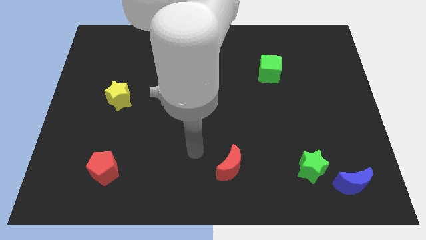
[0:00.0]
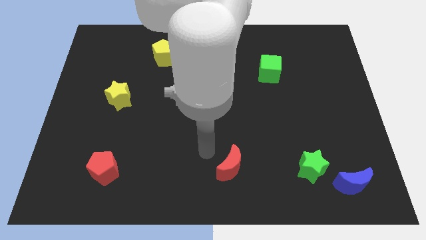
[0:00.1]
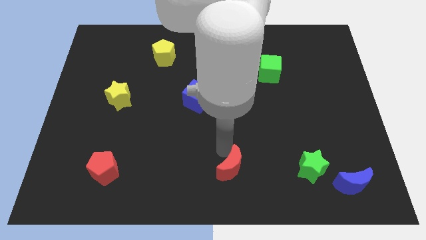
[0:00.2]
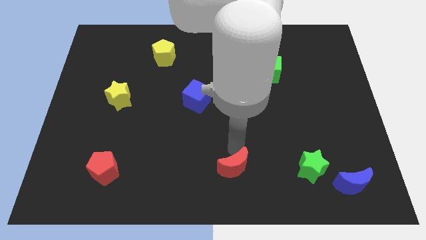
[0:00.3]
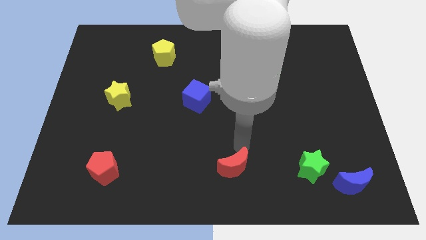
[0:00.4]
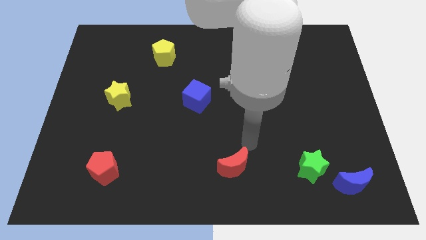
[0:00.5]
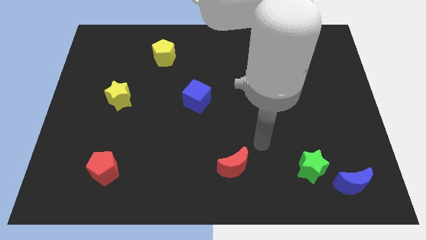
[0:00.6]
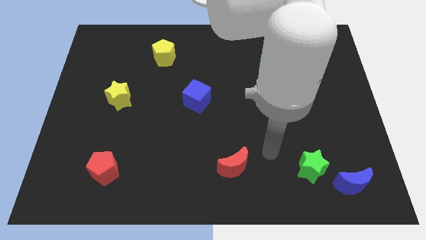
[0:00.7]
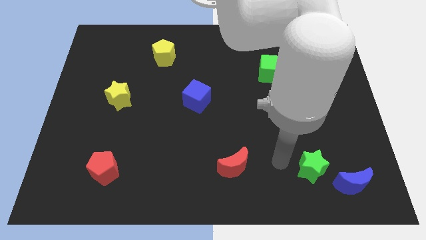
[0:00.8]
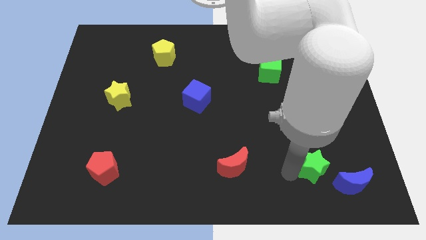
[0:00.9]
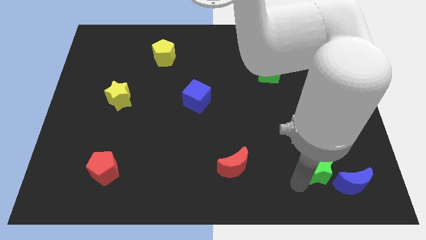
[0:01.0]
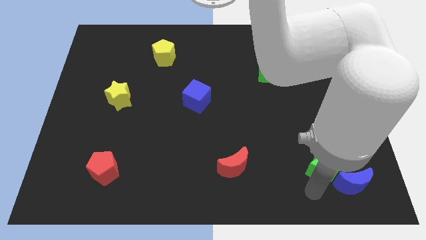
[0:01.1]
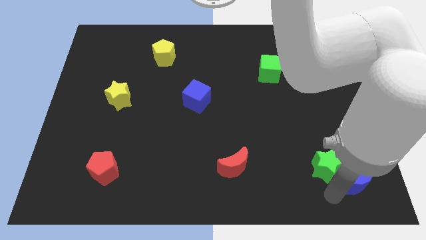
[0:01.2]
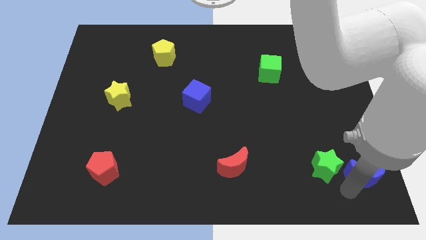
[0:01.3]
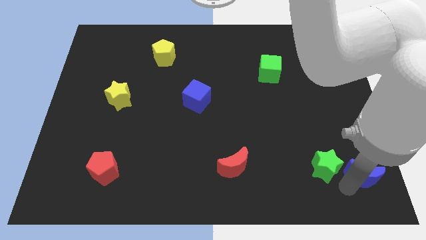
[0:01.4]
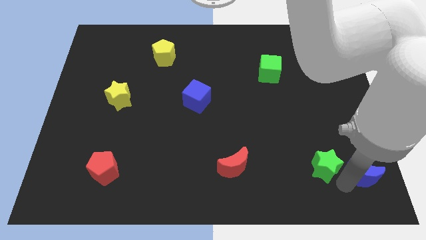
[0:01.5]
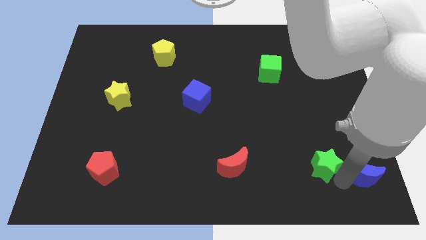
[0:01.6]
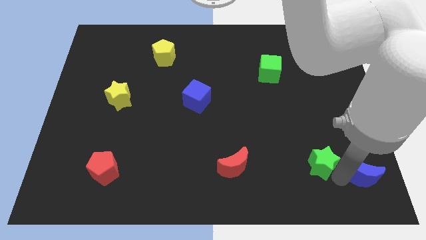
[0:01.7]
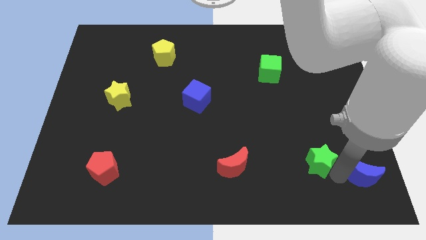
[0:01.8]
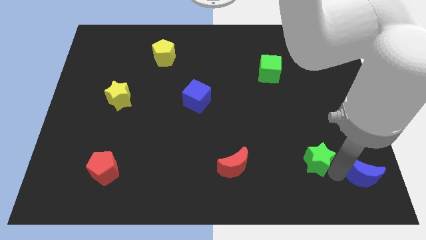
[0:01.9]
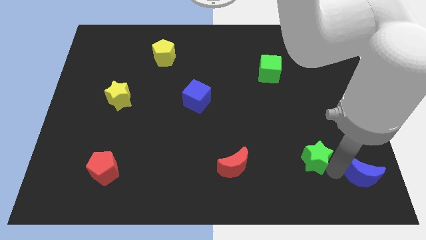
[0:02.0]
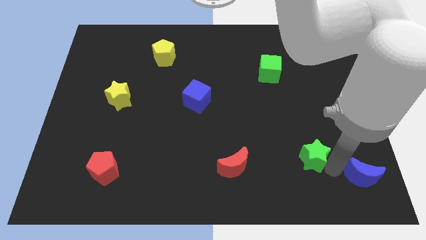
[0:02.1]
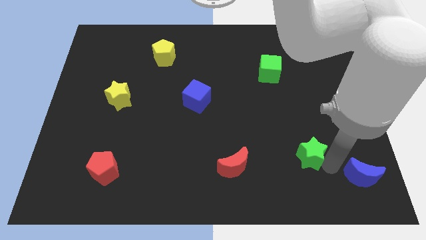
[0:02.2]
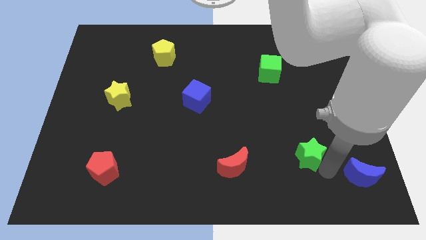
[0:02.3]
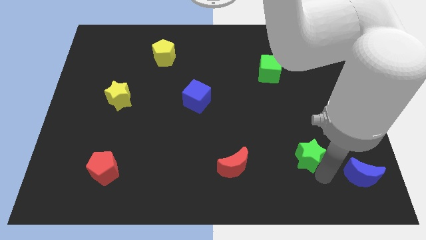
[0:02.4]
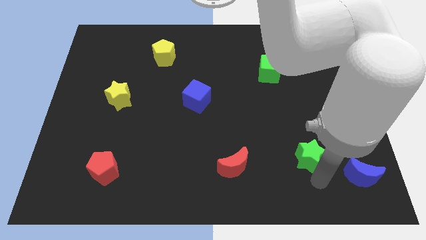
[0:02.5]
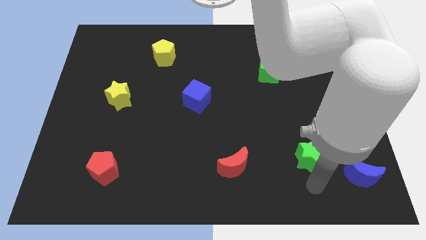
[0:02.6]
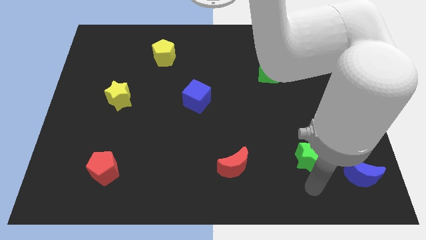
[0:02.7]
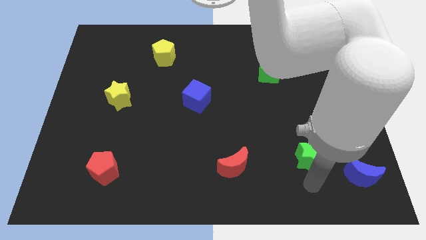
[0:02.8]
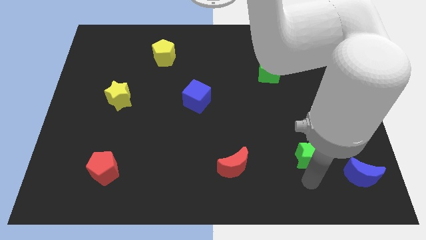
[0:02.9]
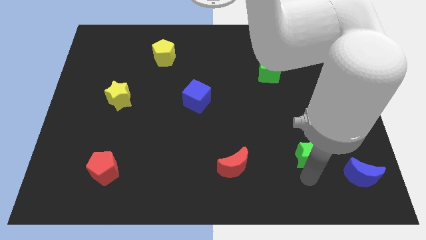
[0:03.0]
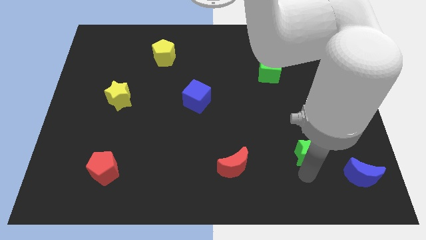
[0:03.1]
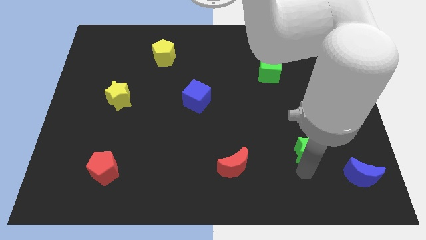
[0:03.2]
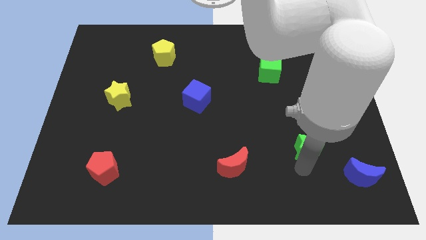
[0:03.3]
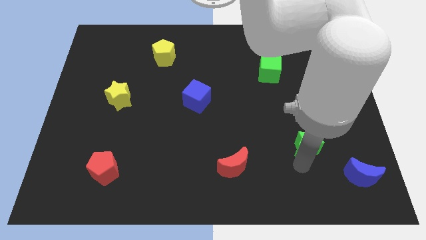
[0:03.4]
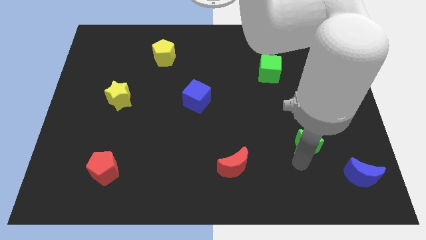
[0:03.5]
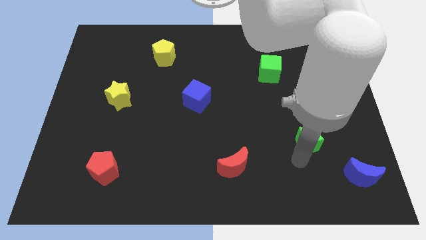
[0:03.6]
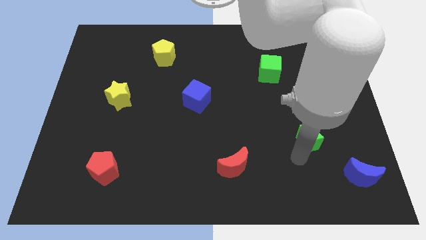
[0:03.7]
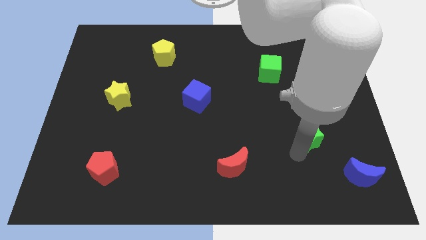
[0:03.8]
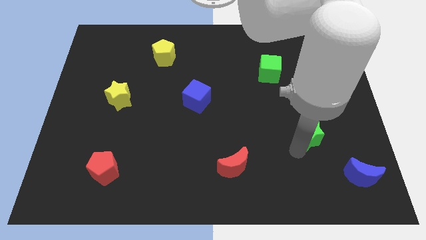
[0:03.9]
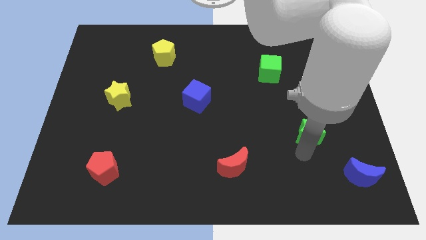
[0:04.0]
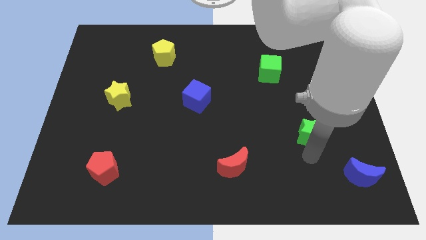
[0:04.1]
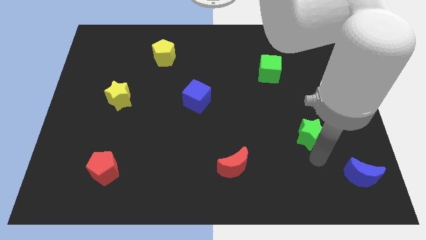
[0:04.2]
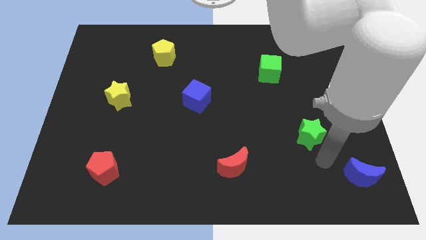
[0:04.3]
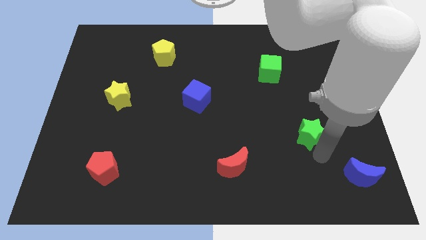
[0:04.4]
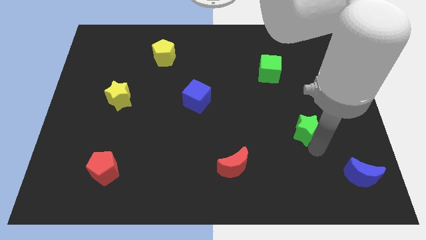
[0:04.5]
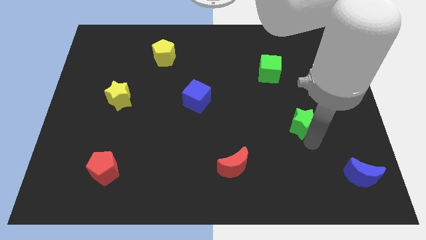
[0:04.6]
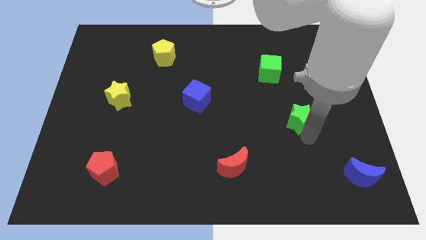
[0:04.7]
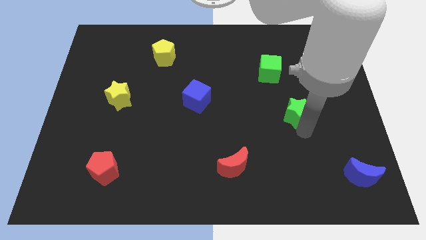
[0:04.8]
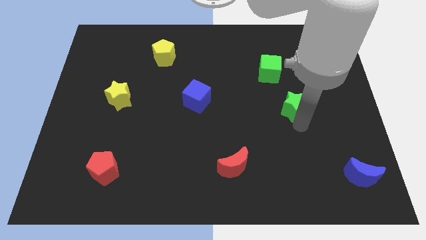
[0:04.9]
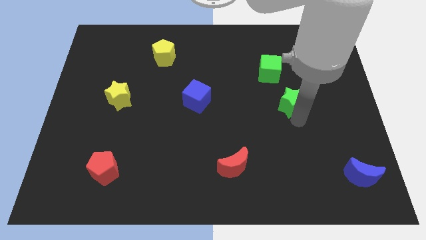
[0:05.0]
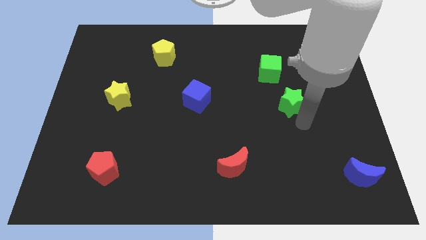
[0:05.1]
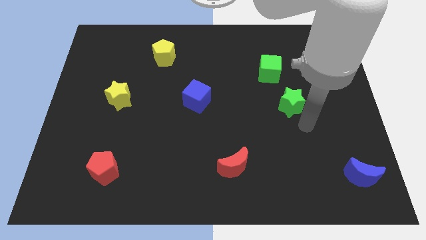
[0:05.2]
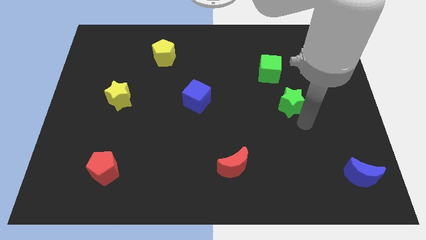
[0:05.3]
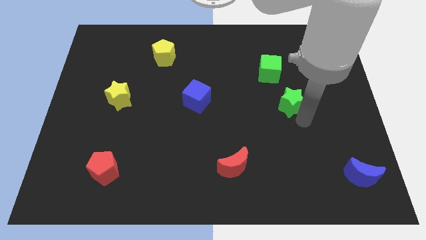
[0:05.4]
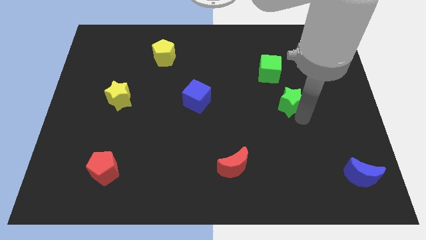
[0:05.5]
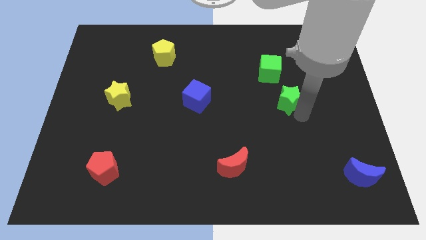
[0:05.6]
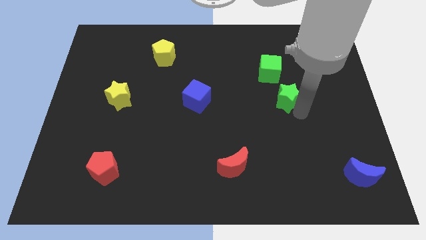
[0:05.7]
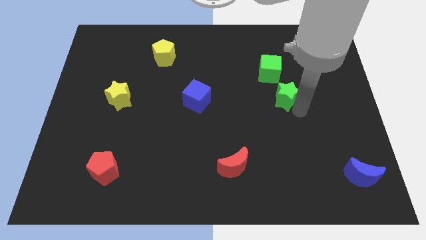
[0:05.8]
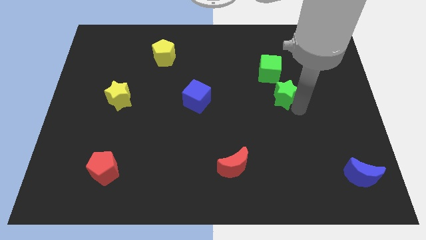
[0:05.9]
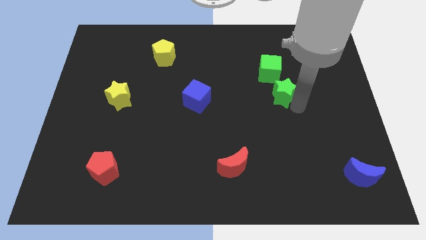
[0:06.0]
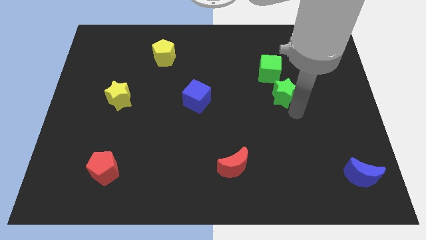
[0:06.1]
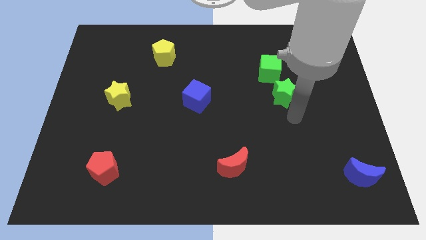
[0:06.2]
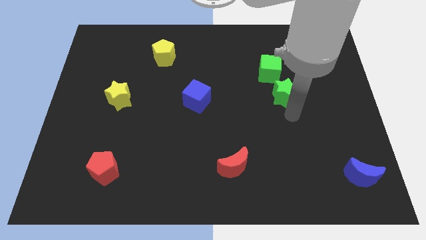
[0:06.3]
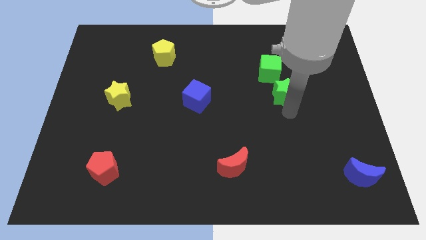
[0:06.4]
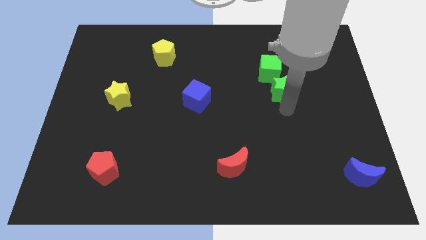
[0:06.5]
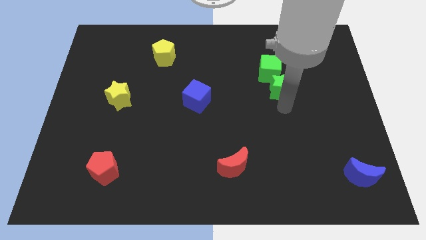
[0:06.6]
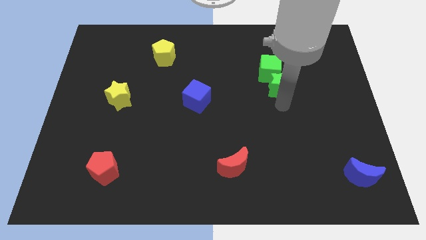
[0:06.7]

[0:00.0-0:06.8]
push the green star next to the green cube
